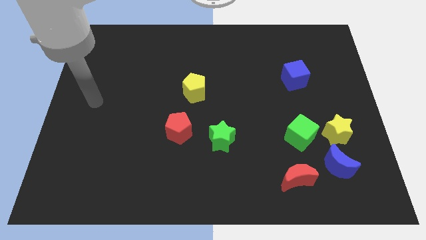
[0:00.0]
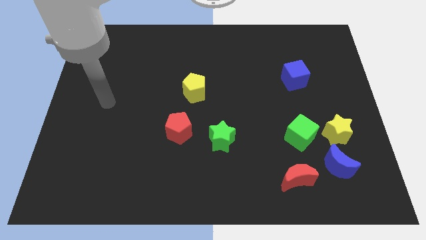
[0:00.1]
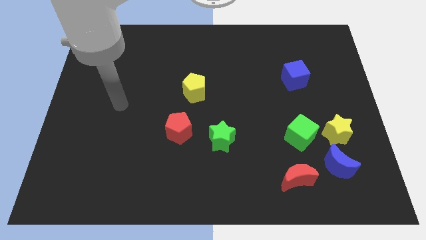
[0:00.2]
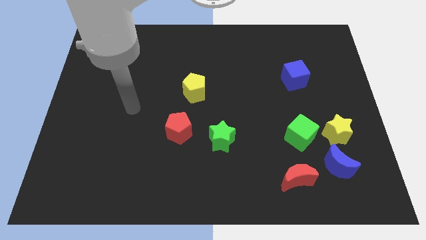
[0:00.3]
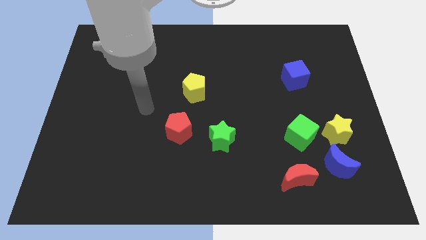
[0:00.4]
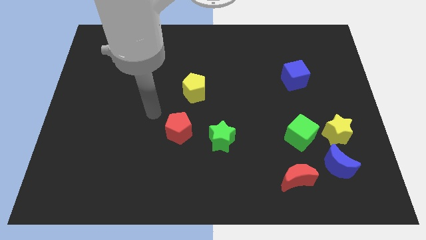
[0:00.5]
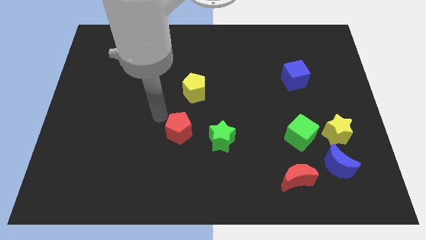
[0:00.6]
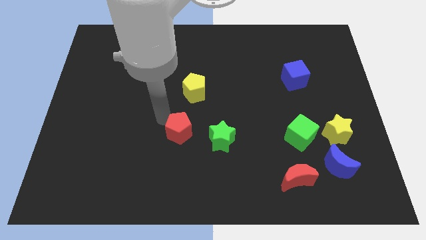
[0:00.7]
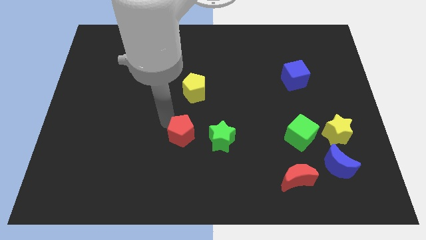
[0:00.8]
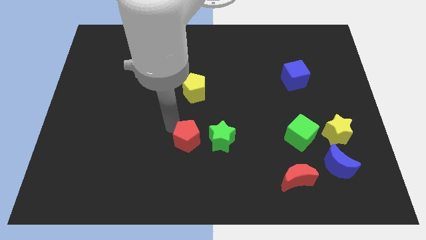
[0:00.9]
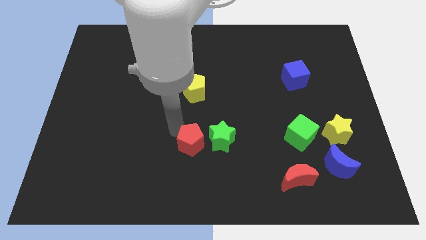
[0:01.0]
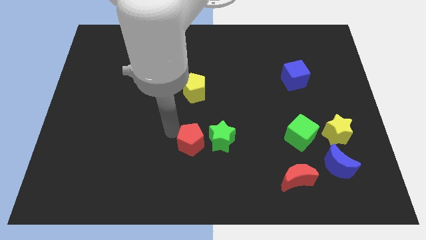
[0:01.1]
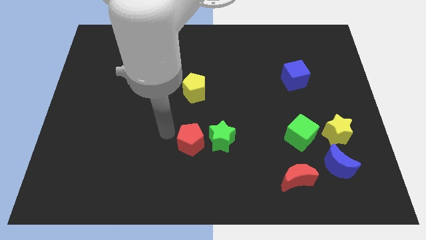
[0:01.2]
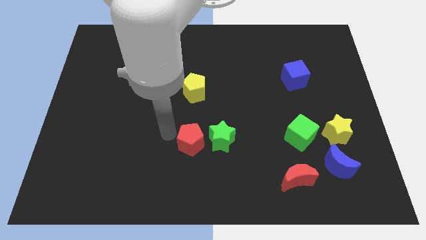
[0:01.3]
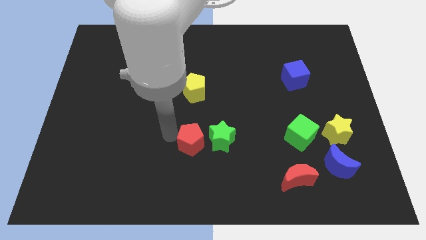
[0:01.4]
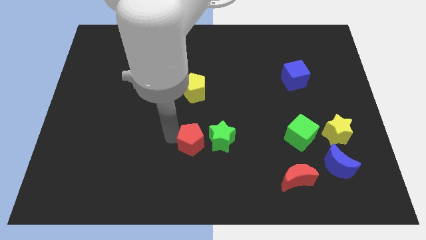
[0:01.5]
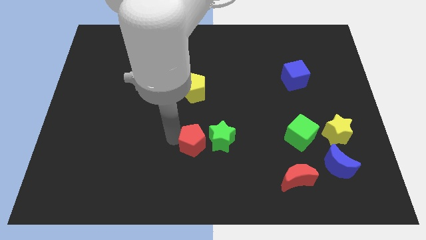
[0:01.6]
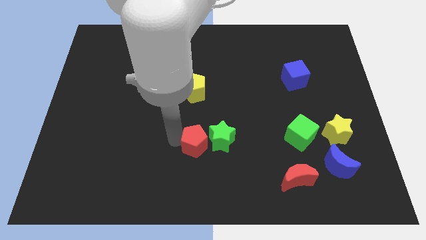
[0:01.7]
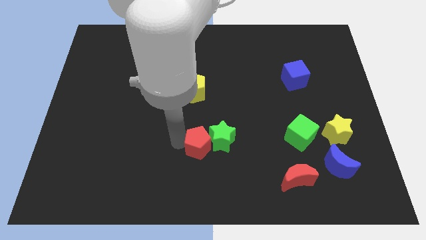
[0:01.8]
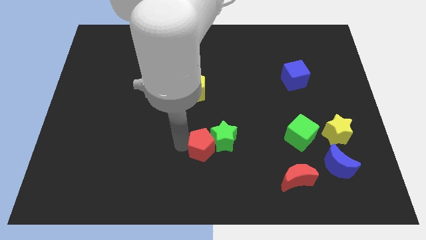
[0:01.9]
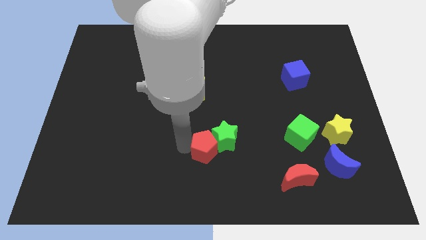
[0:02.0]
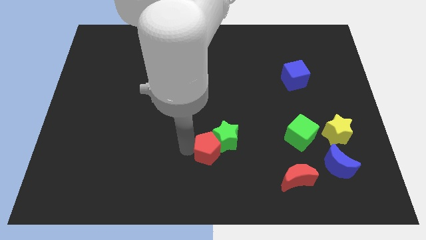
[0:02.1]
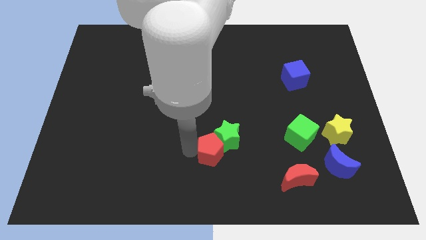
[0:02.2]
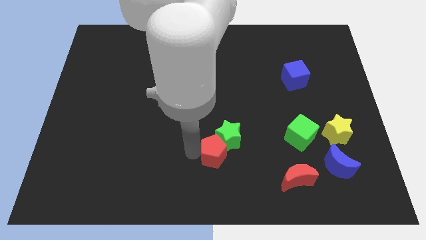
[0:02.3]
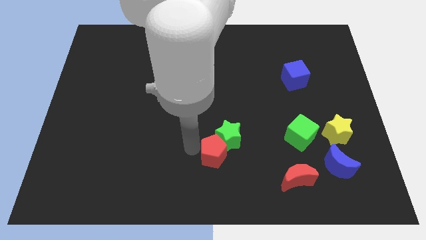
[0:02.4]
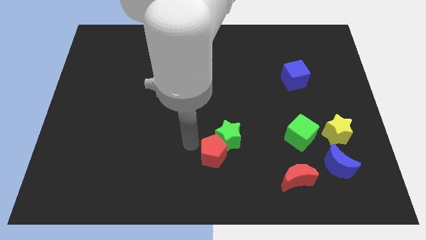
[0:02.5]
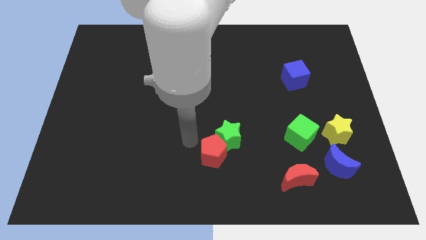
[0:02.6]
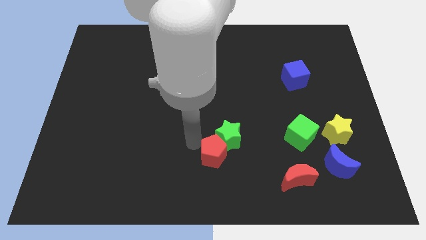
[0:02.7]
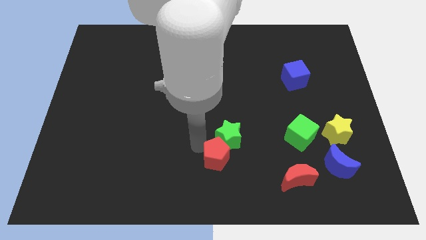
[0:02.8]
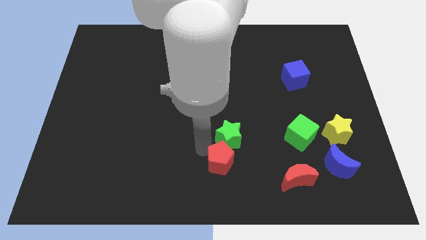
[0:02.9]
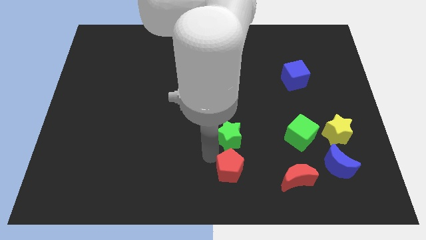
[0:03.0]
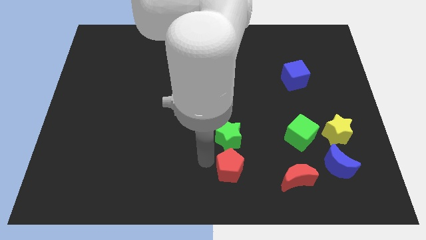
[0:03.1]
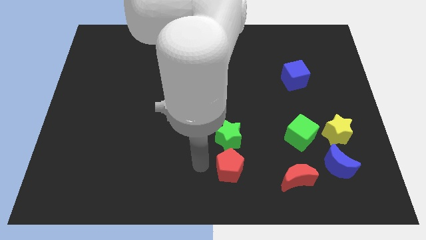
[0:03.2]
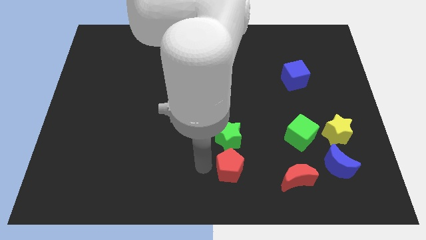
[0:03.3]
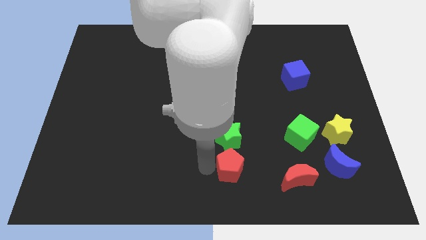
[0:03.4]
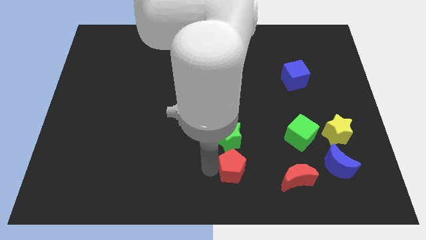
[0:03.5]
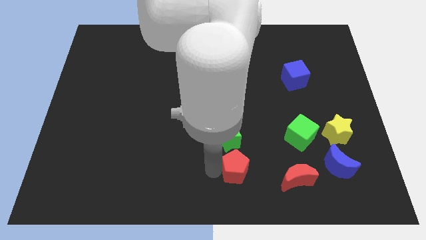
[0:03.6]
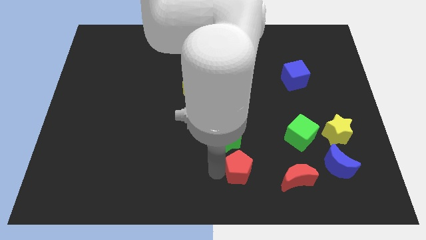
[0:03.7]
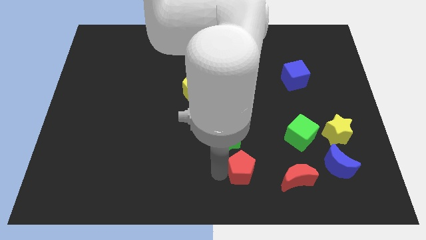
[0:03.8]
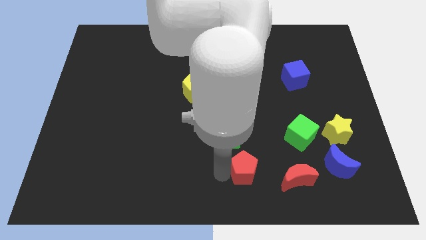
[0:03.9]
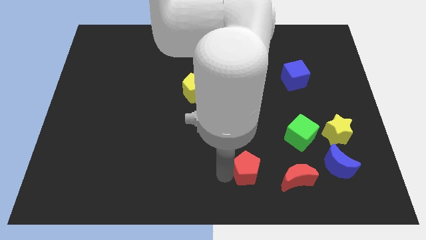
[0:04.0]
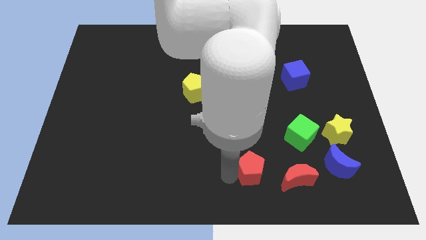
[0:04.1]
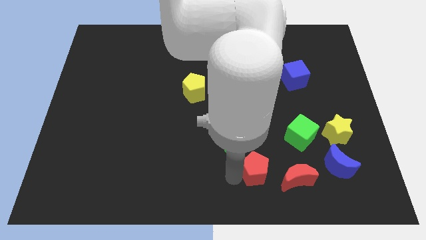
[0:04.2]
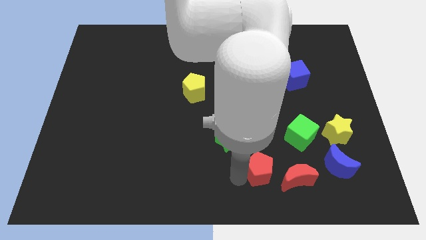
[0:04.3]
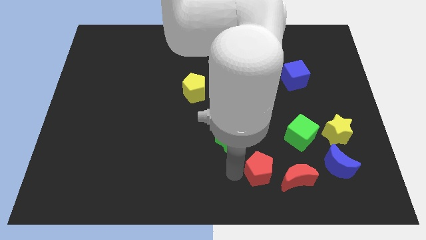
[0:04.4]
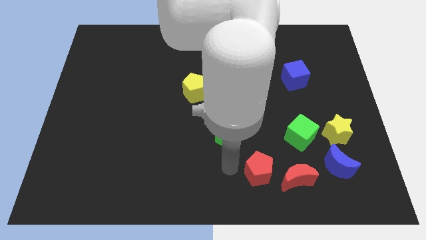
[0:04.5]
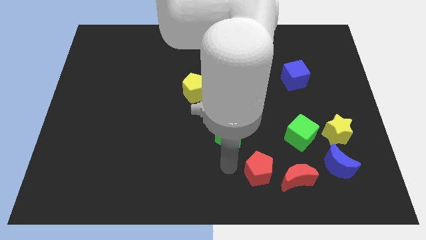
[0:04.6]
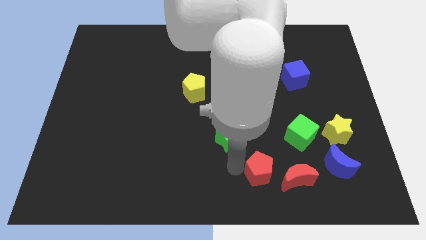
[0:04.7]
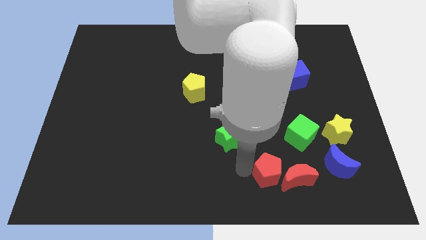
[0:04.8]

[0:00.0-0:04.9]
move the red pentagon next to the red moon

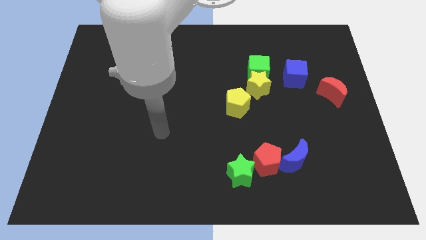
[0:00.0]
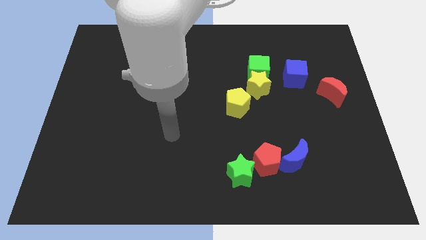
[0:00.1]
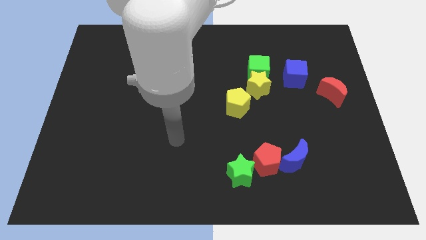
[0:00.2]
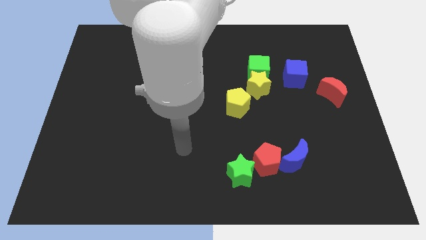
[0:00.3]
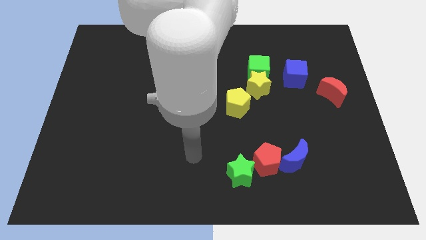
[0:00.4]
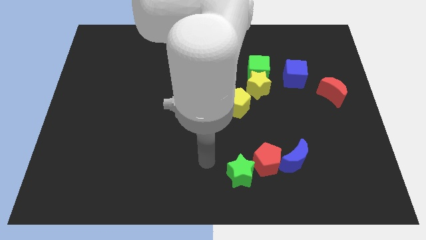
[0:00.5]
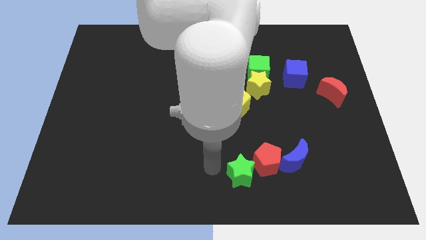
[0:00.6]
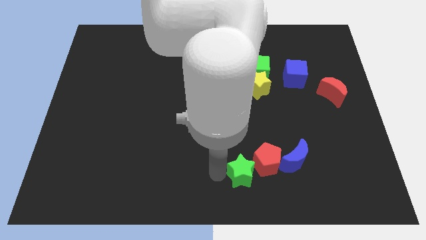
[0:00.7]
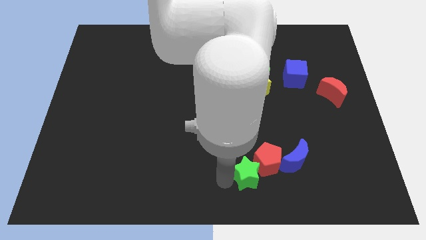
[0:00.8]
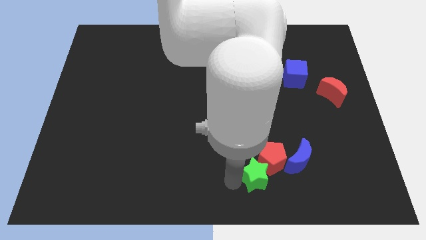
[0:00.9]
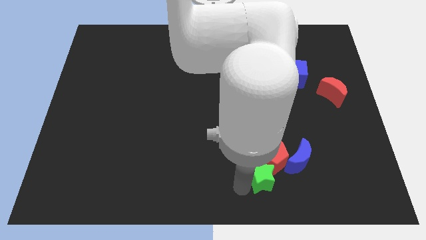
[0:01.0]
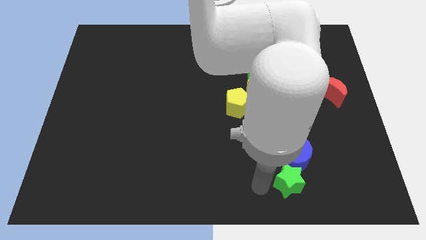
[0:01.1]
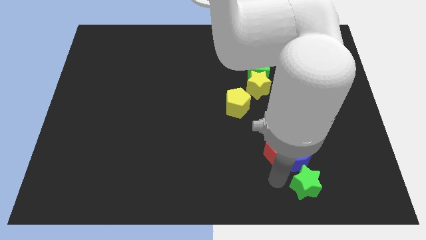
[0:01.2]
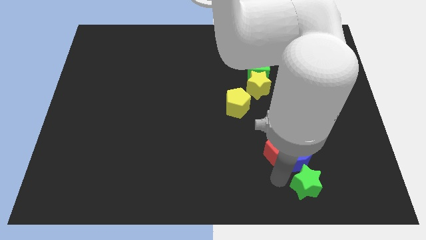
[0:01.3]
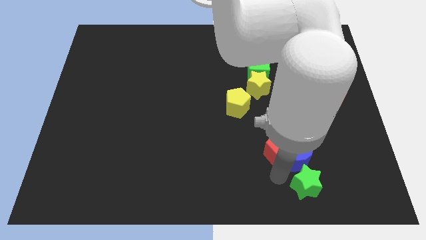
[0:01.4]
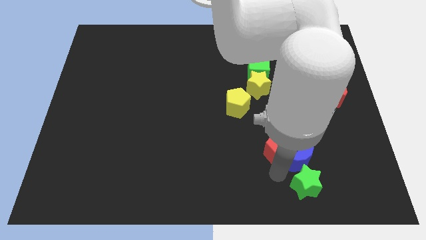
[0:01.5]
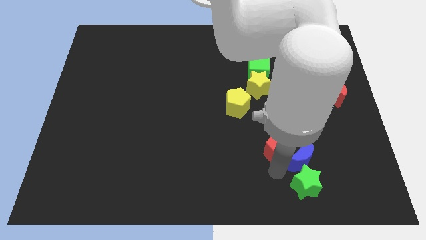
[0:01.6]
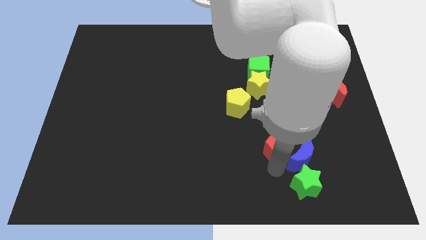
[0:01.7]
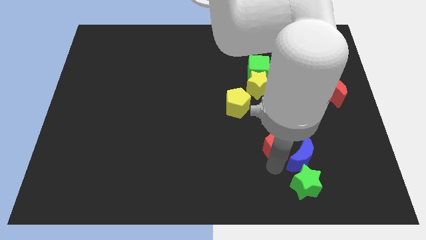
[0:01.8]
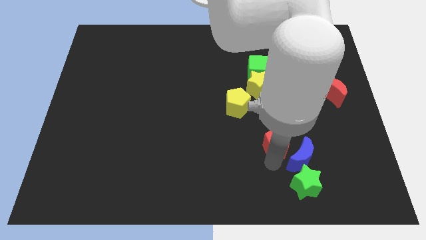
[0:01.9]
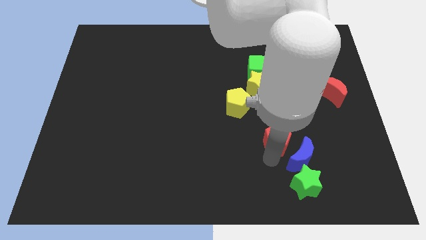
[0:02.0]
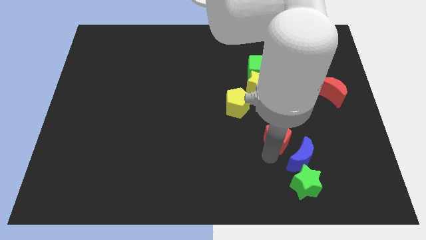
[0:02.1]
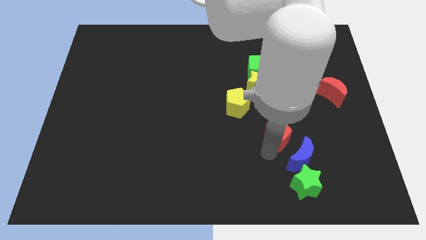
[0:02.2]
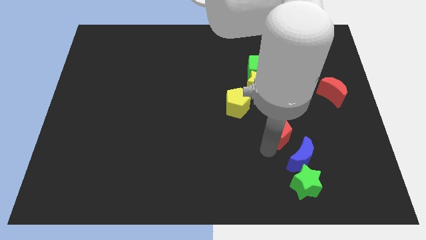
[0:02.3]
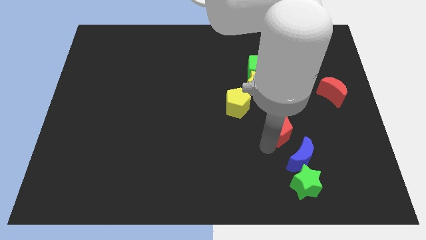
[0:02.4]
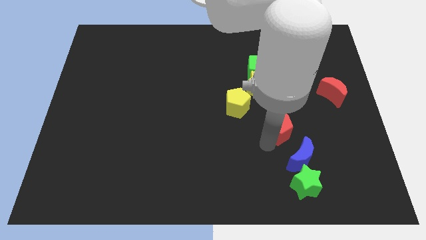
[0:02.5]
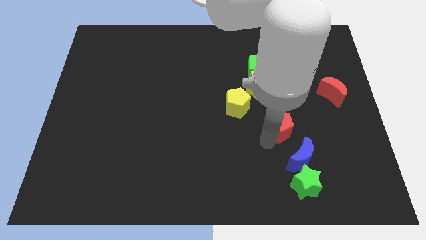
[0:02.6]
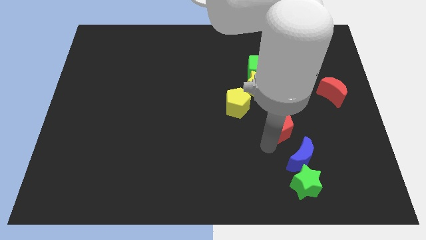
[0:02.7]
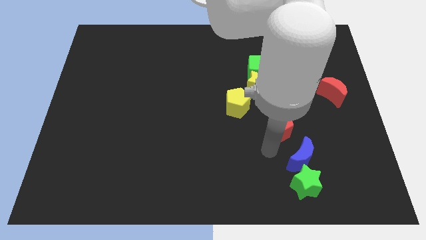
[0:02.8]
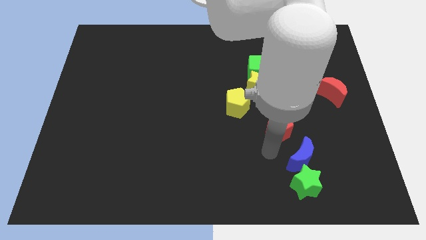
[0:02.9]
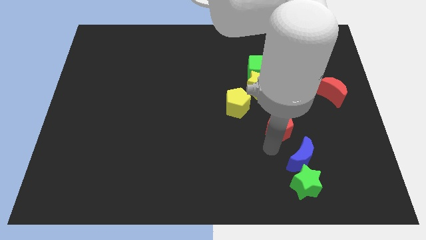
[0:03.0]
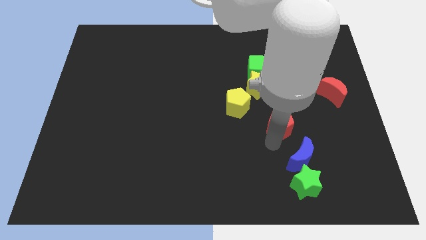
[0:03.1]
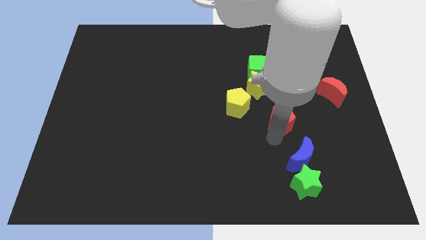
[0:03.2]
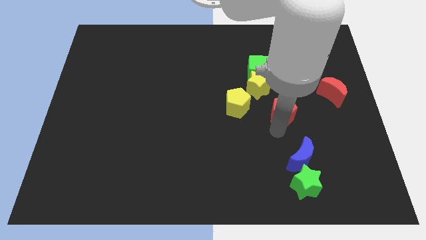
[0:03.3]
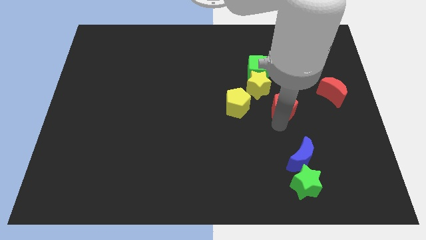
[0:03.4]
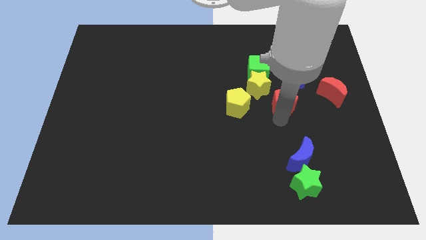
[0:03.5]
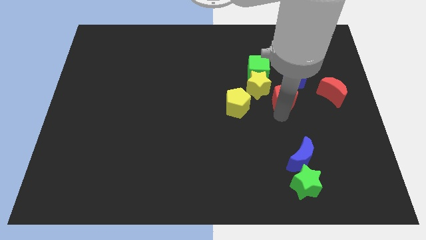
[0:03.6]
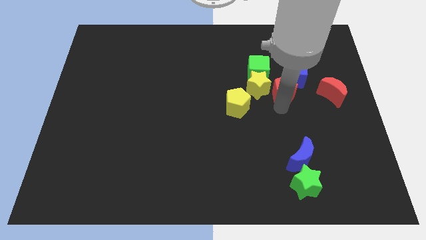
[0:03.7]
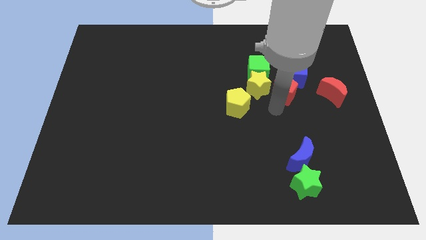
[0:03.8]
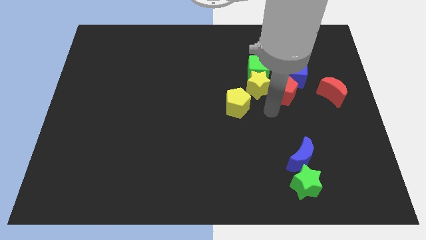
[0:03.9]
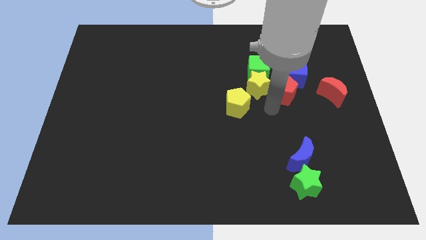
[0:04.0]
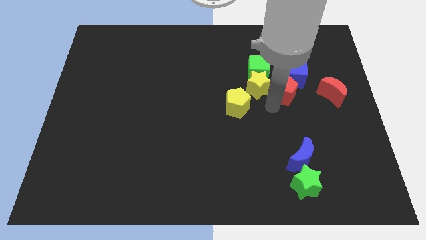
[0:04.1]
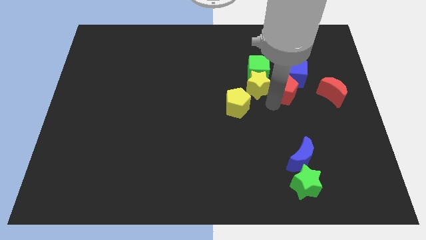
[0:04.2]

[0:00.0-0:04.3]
put the red pentagon next to the blue cube
